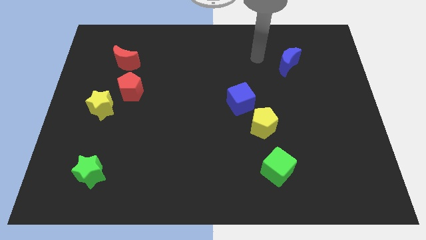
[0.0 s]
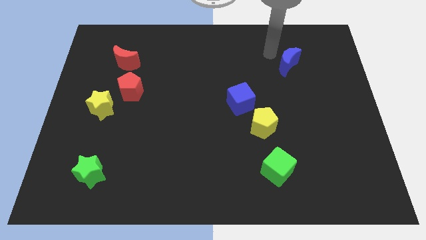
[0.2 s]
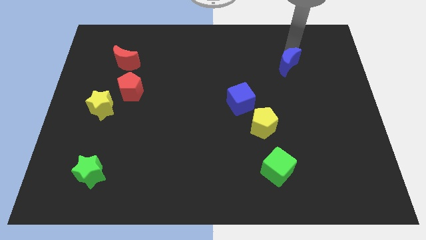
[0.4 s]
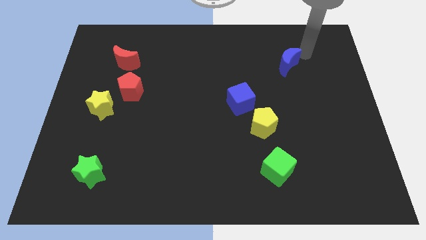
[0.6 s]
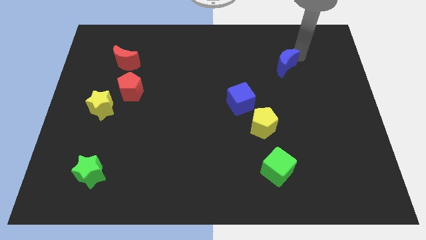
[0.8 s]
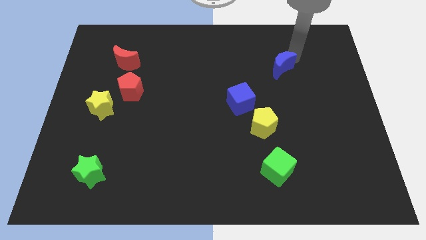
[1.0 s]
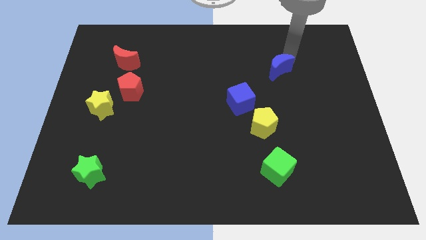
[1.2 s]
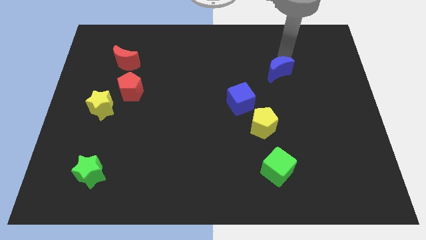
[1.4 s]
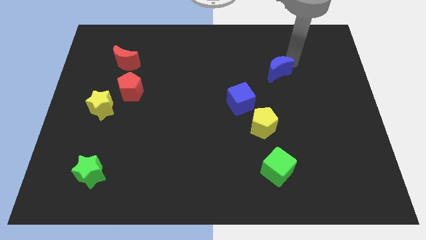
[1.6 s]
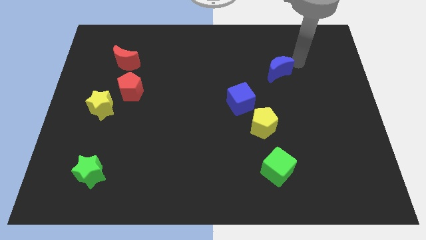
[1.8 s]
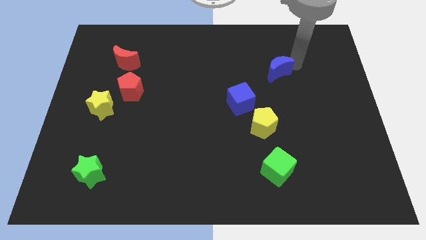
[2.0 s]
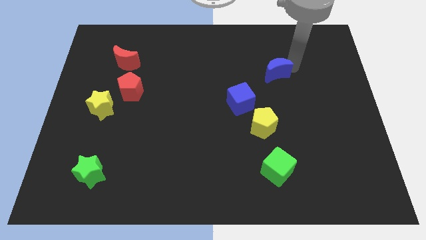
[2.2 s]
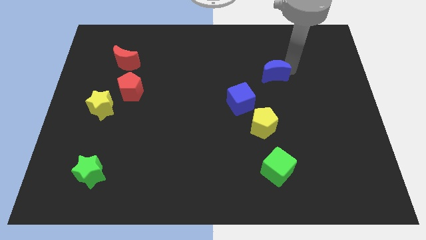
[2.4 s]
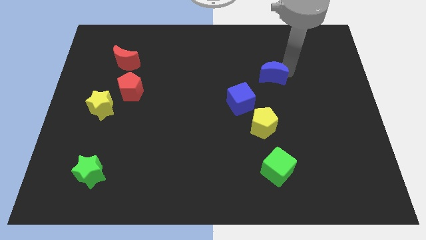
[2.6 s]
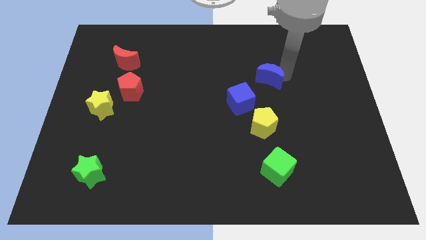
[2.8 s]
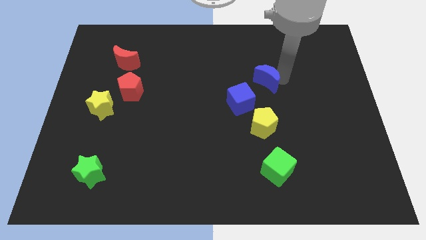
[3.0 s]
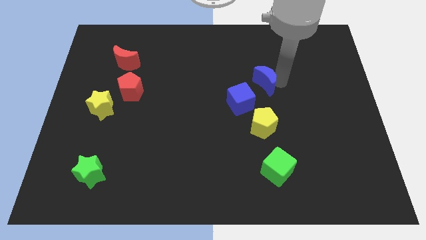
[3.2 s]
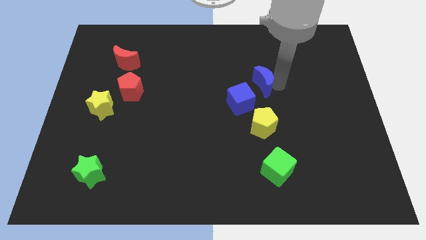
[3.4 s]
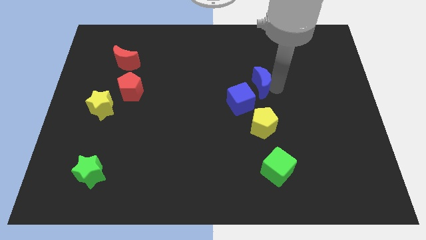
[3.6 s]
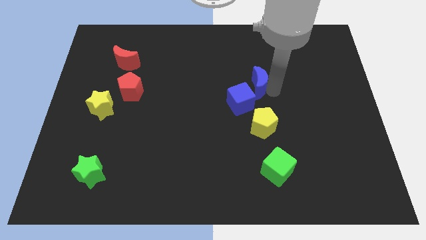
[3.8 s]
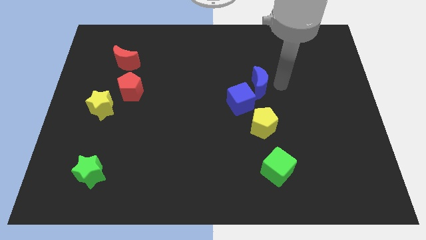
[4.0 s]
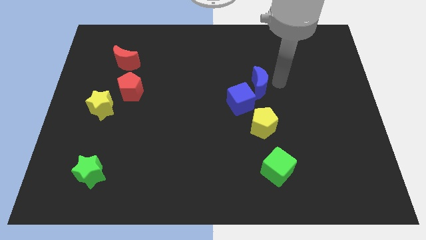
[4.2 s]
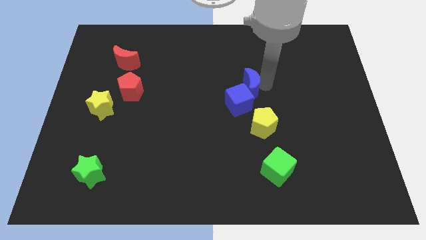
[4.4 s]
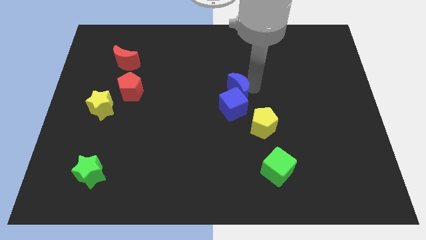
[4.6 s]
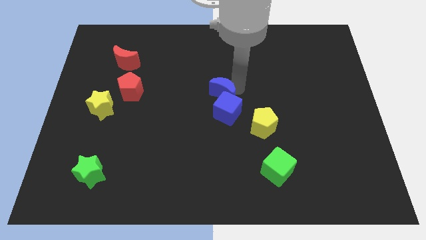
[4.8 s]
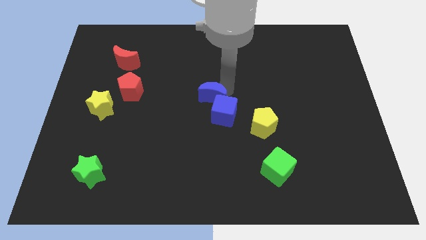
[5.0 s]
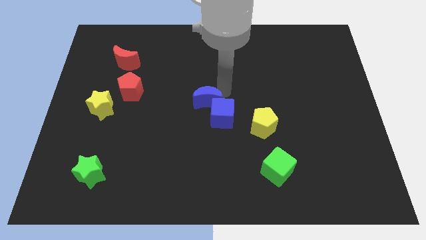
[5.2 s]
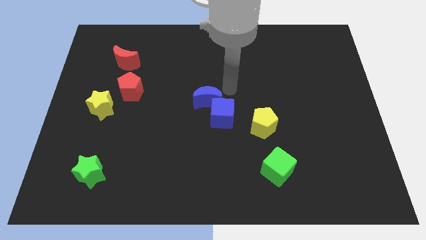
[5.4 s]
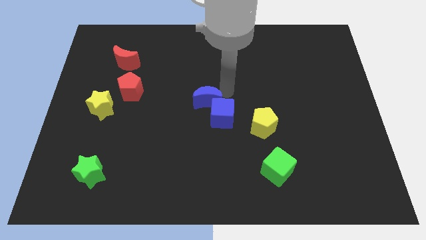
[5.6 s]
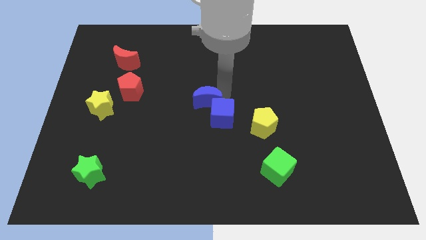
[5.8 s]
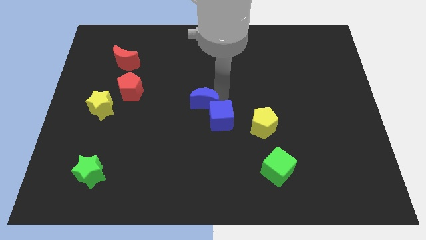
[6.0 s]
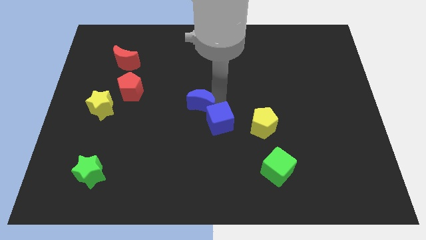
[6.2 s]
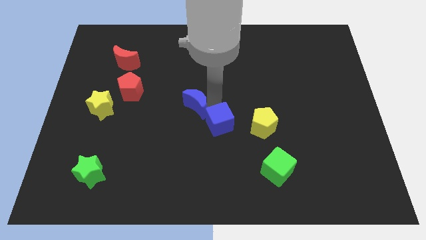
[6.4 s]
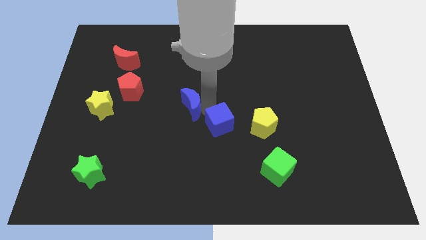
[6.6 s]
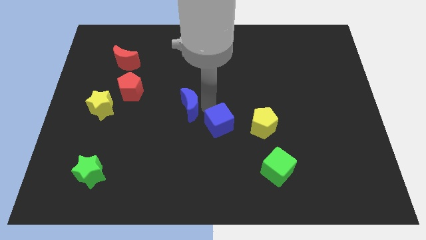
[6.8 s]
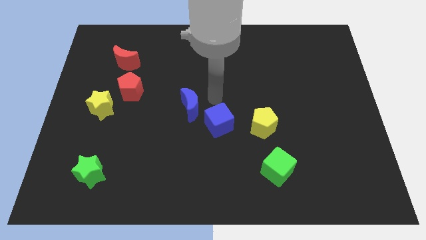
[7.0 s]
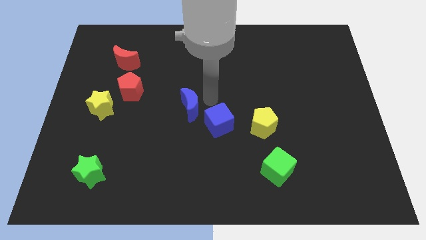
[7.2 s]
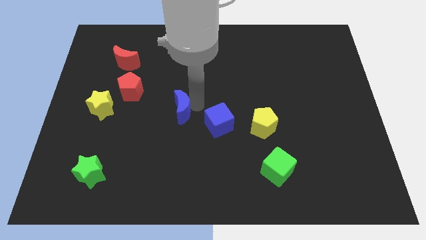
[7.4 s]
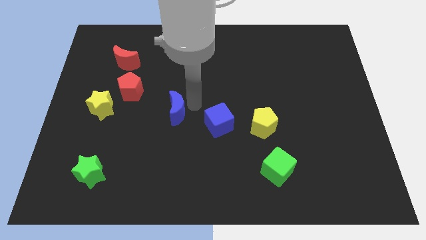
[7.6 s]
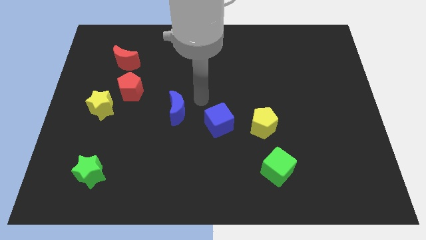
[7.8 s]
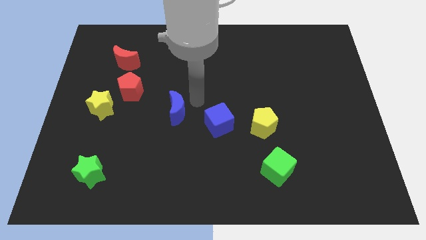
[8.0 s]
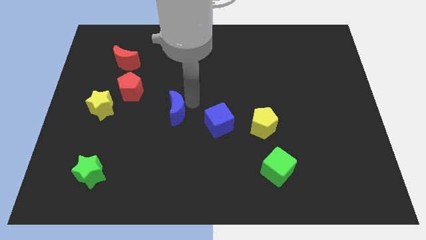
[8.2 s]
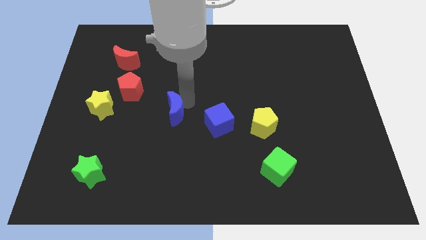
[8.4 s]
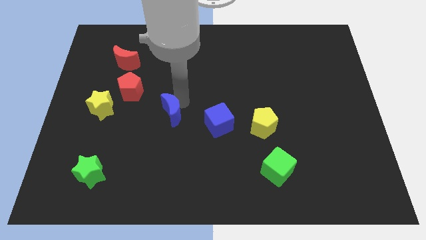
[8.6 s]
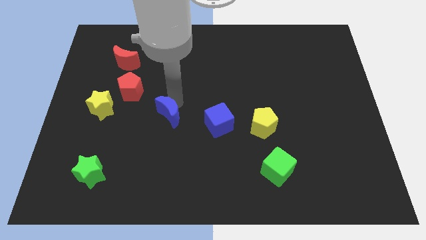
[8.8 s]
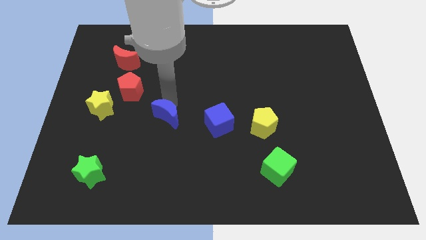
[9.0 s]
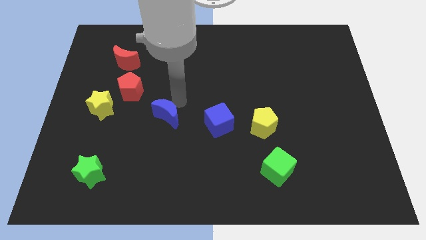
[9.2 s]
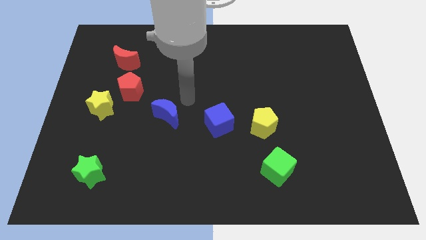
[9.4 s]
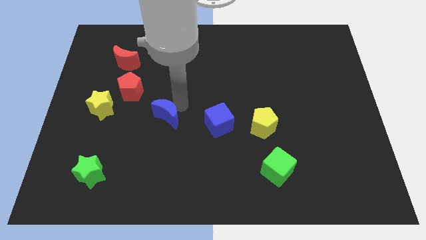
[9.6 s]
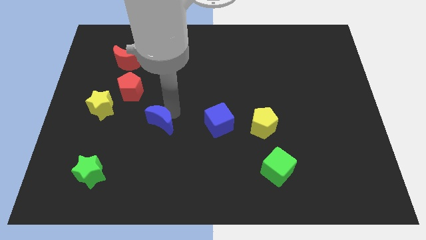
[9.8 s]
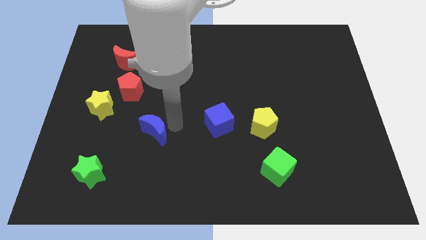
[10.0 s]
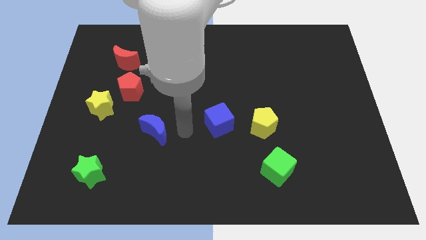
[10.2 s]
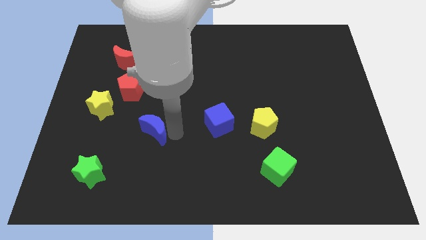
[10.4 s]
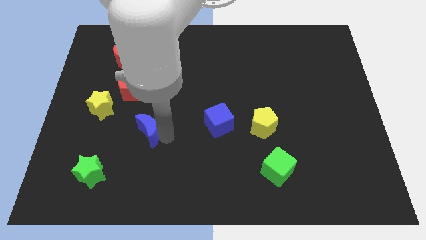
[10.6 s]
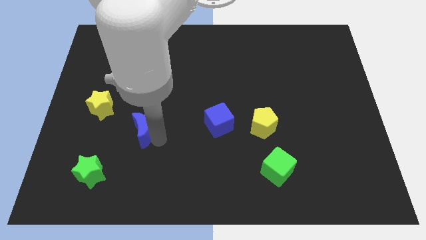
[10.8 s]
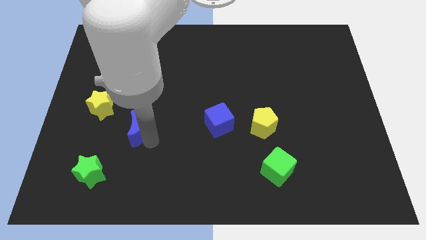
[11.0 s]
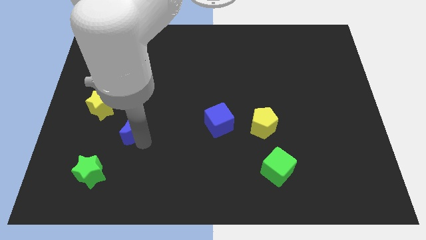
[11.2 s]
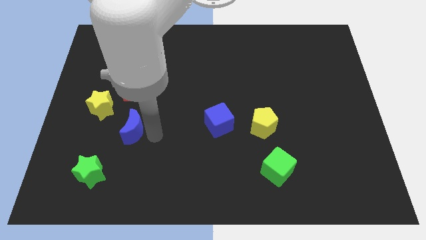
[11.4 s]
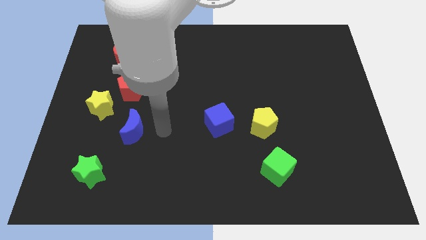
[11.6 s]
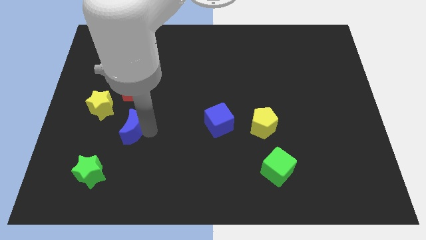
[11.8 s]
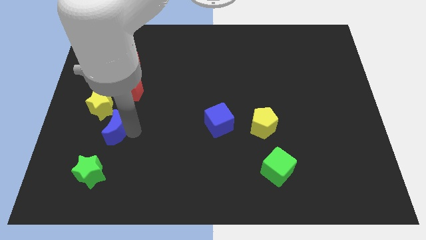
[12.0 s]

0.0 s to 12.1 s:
put the blue moon above the green star

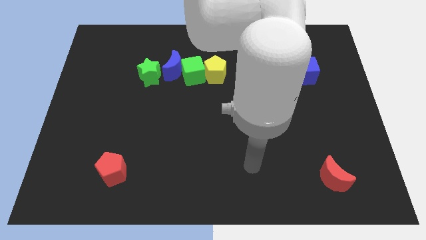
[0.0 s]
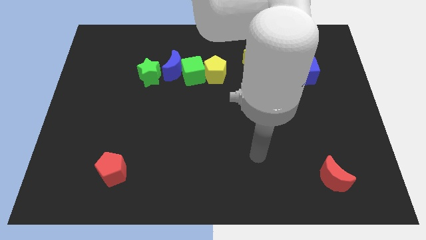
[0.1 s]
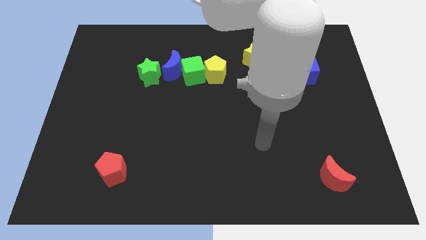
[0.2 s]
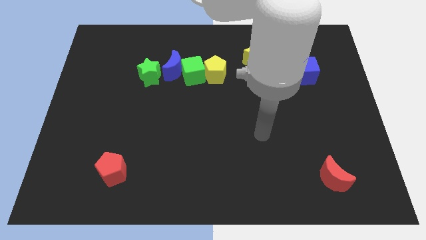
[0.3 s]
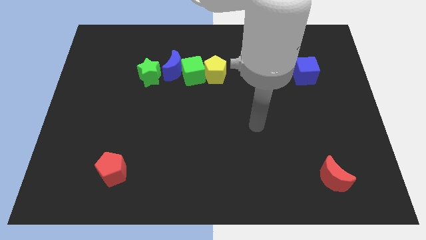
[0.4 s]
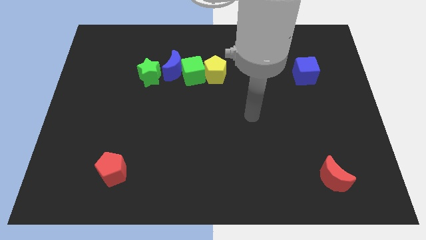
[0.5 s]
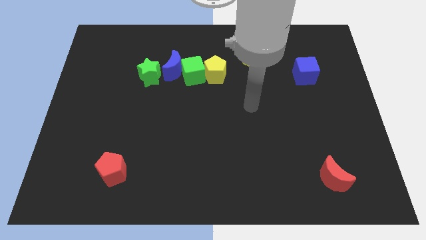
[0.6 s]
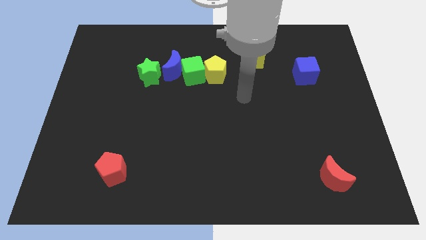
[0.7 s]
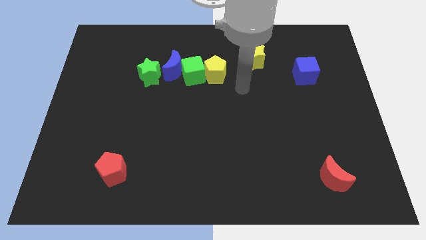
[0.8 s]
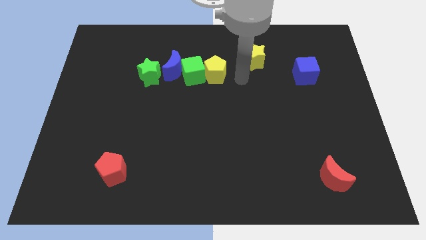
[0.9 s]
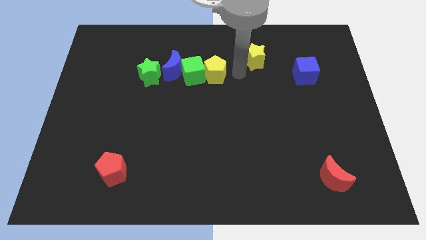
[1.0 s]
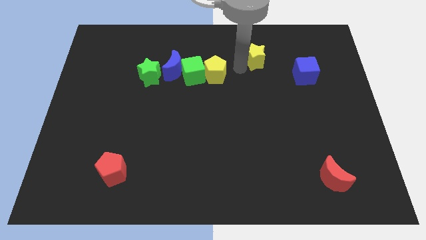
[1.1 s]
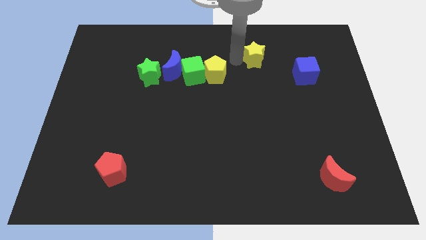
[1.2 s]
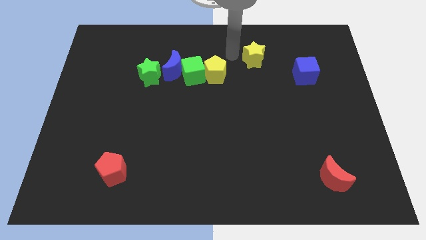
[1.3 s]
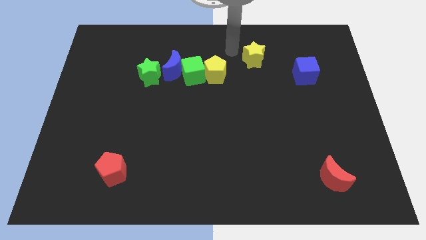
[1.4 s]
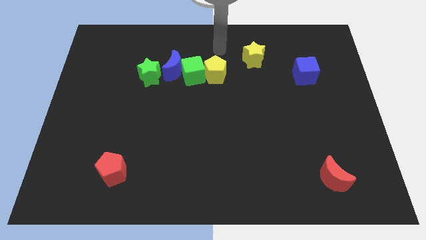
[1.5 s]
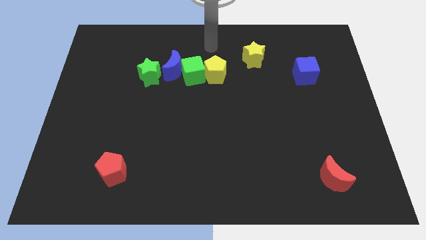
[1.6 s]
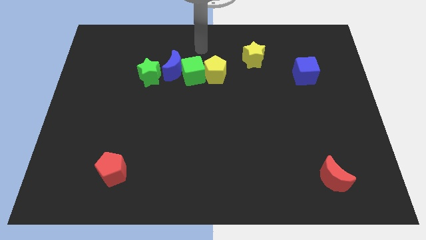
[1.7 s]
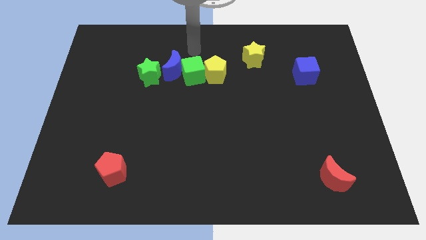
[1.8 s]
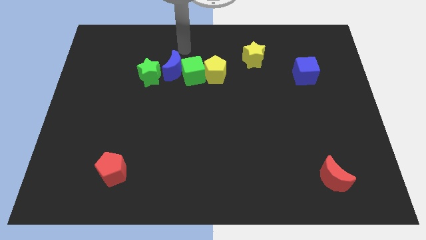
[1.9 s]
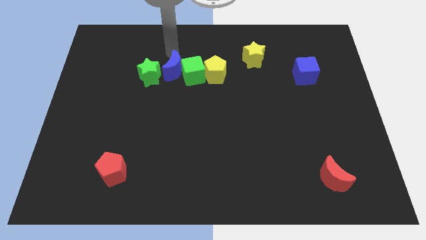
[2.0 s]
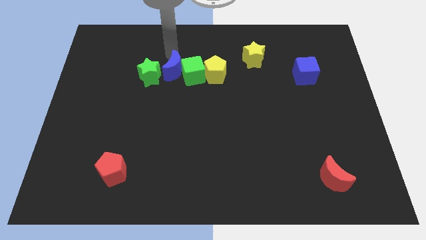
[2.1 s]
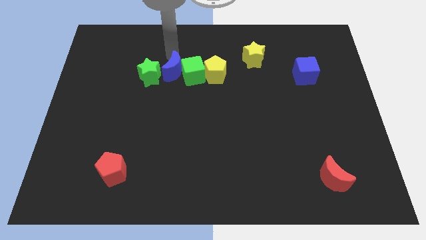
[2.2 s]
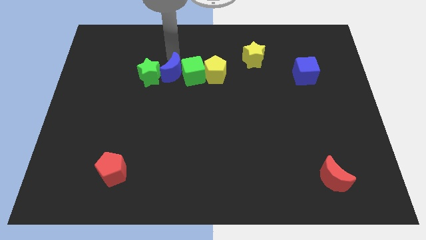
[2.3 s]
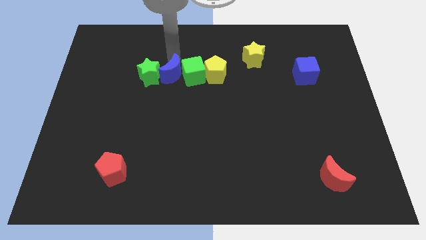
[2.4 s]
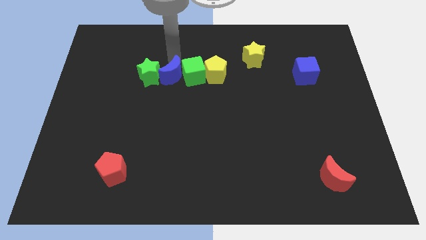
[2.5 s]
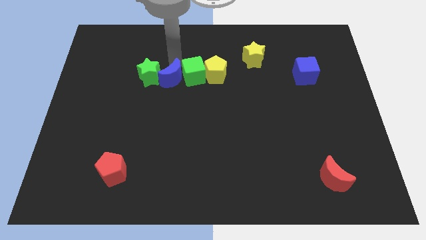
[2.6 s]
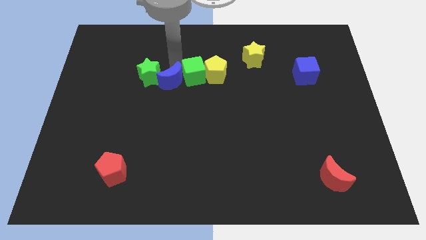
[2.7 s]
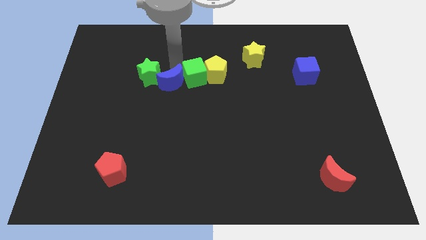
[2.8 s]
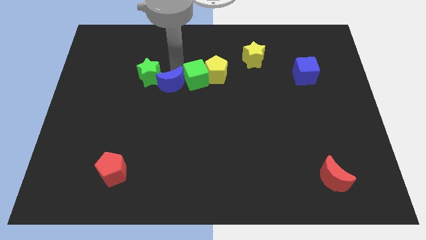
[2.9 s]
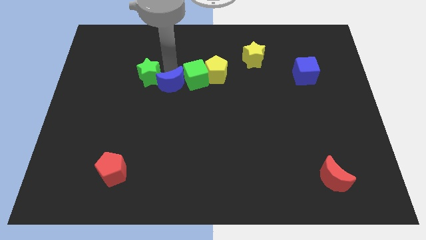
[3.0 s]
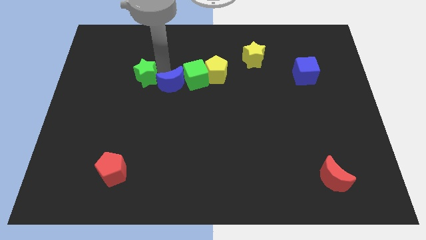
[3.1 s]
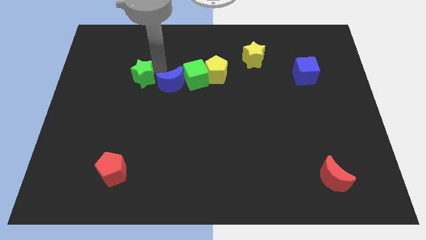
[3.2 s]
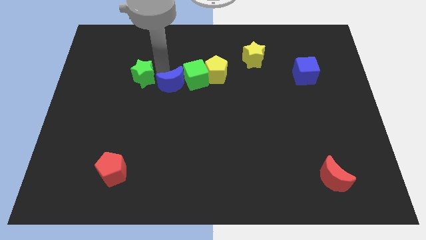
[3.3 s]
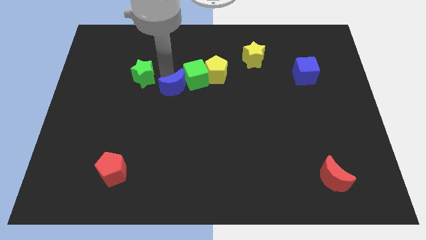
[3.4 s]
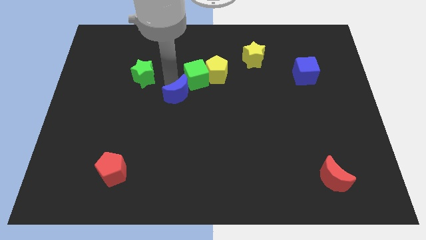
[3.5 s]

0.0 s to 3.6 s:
put the blue moon to the bottom of the green cube
